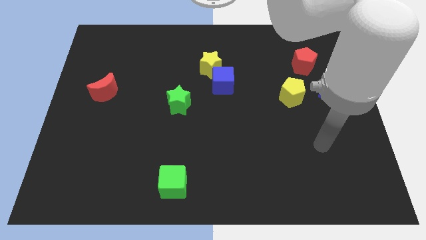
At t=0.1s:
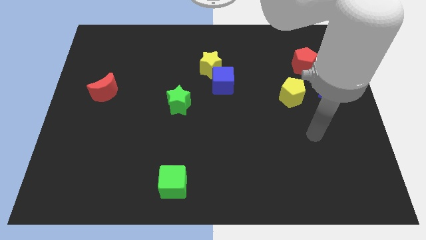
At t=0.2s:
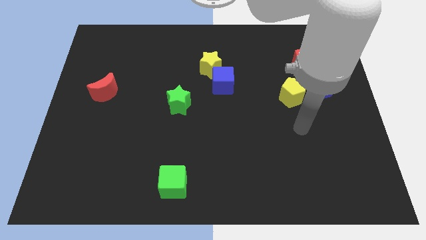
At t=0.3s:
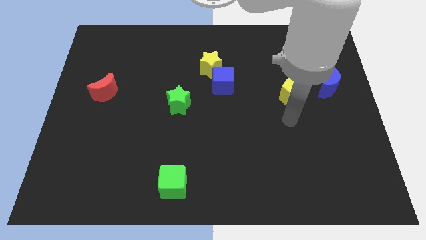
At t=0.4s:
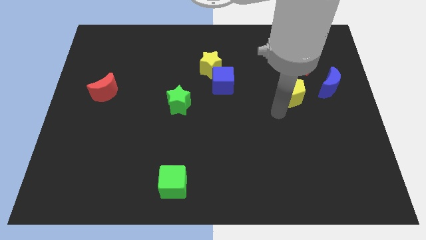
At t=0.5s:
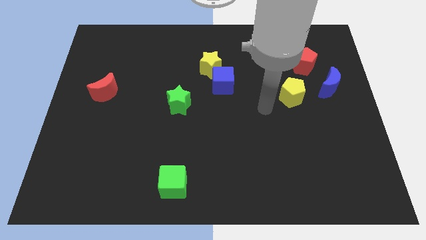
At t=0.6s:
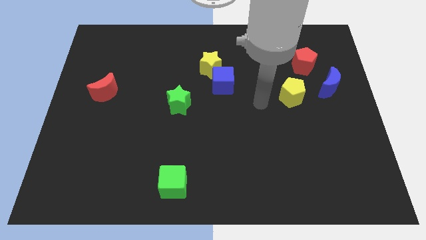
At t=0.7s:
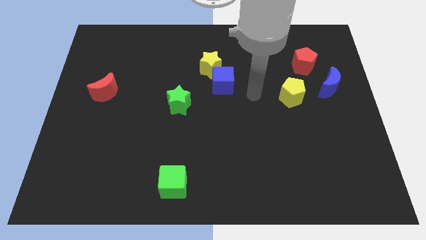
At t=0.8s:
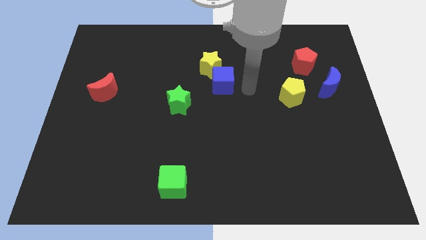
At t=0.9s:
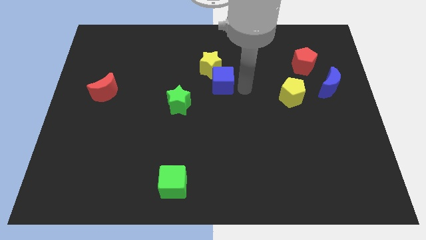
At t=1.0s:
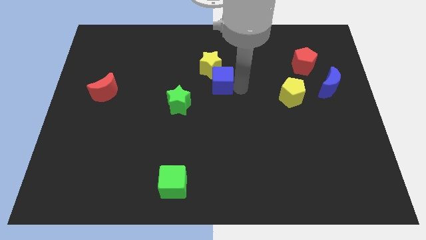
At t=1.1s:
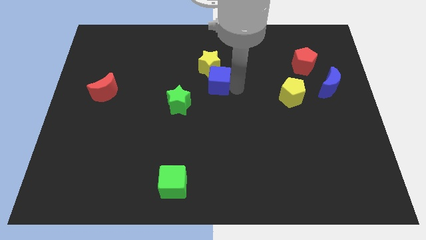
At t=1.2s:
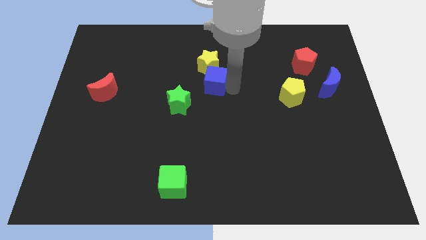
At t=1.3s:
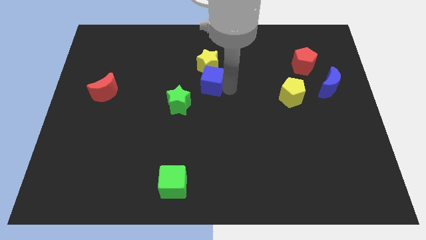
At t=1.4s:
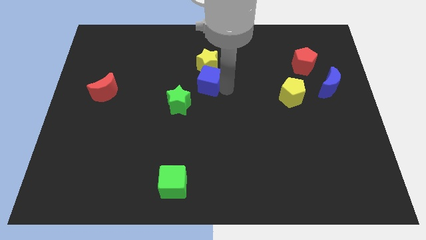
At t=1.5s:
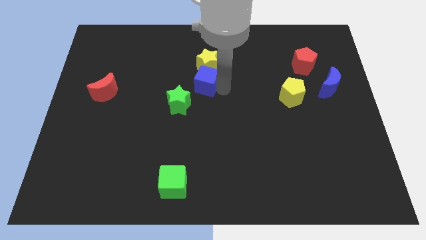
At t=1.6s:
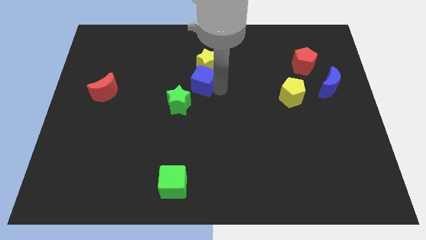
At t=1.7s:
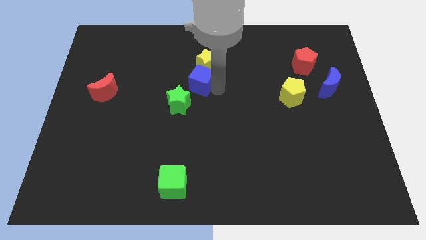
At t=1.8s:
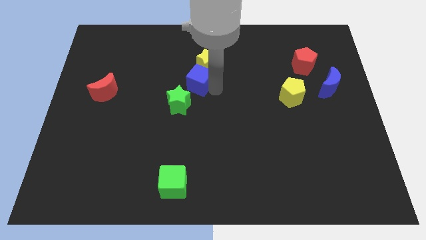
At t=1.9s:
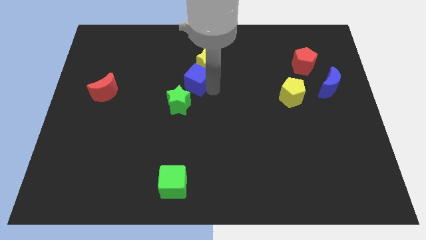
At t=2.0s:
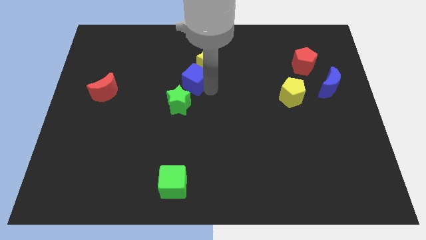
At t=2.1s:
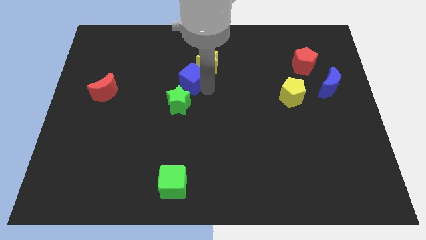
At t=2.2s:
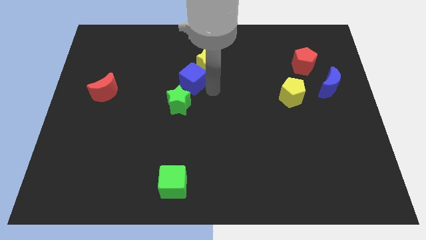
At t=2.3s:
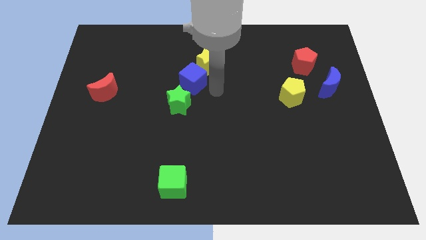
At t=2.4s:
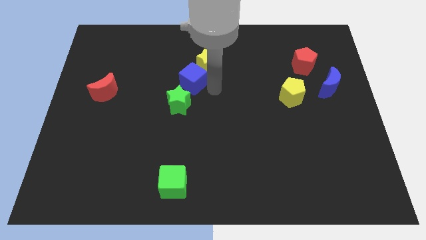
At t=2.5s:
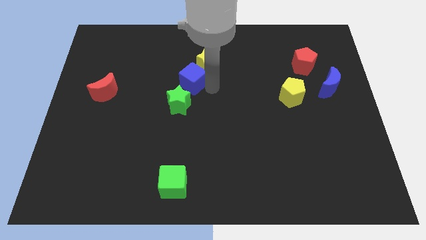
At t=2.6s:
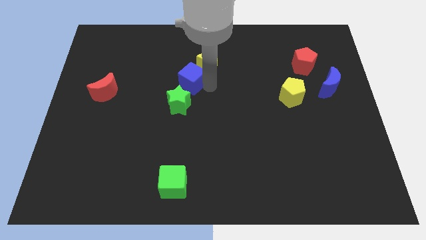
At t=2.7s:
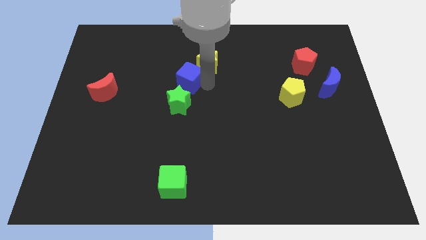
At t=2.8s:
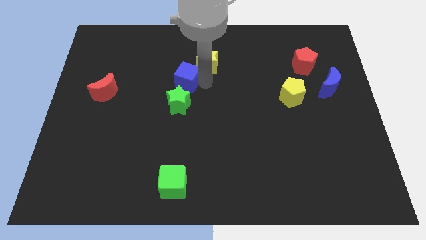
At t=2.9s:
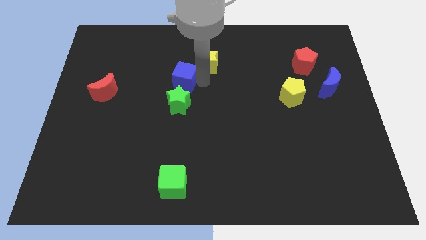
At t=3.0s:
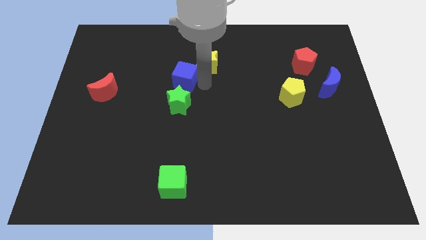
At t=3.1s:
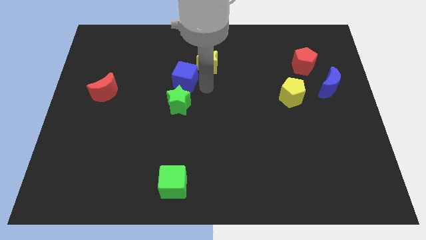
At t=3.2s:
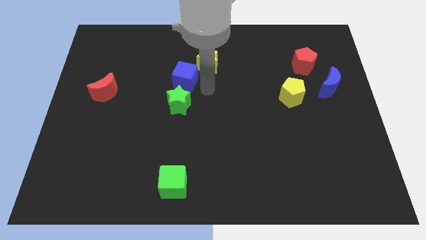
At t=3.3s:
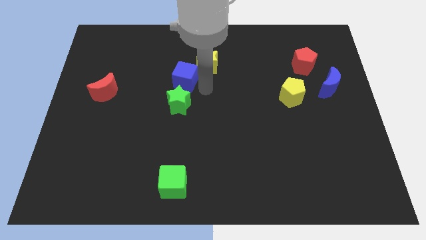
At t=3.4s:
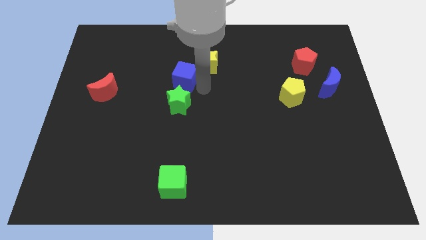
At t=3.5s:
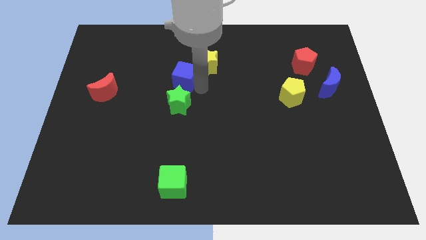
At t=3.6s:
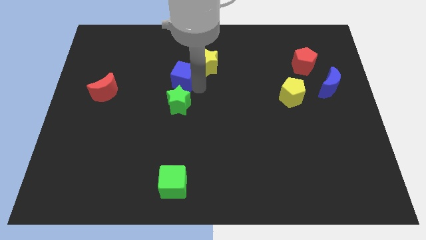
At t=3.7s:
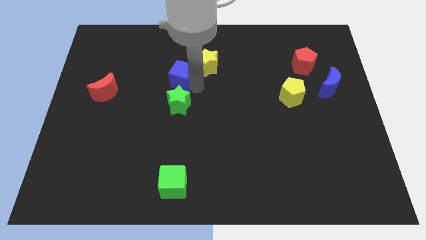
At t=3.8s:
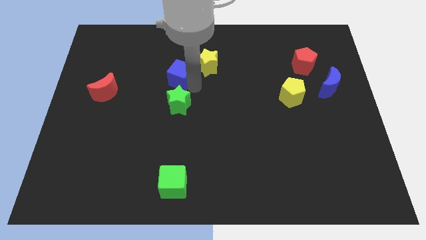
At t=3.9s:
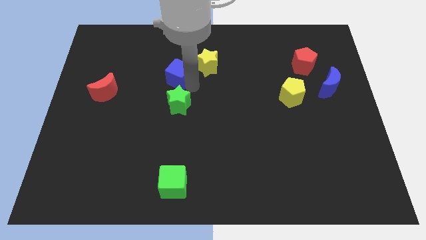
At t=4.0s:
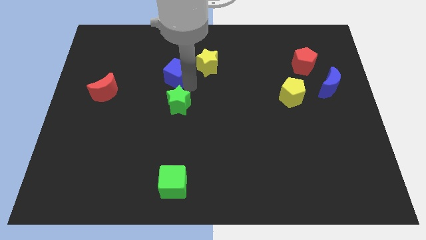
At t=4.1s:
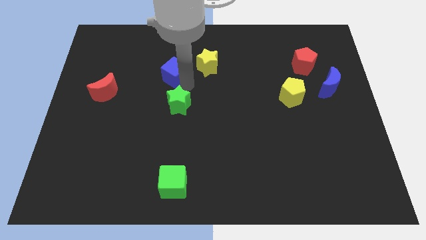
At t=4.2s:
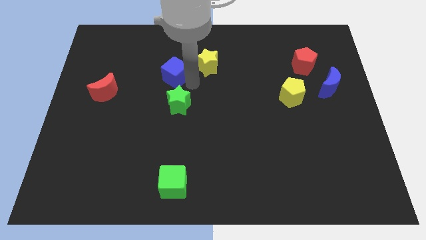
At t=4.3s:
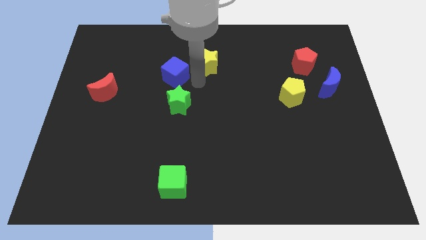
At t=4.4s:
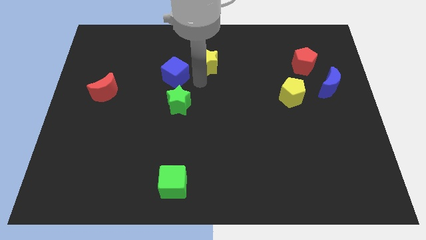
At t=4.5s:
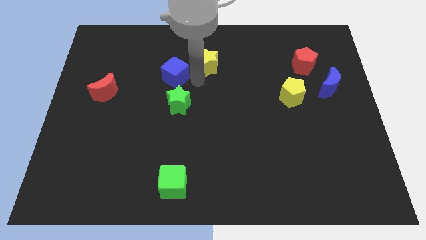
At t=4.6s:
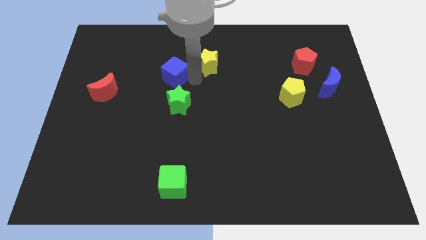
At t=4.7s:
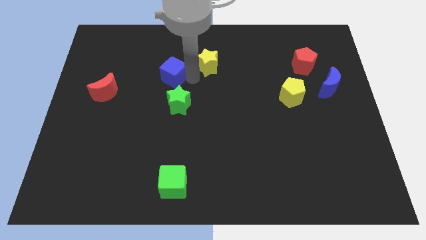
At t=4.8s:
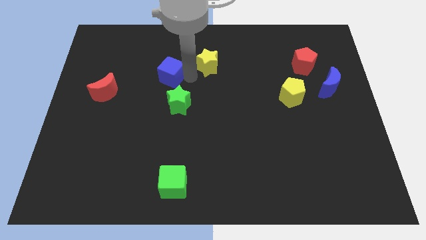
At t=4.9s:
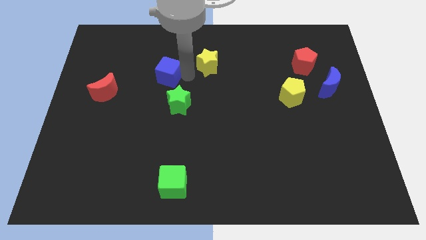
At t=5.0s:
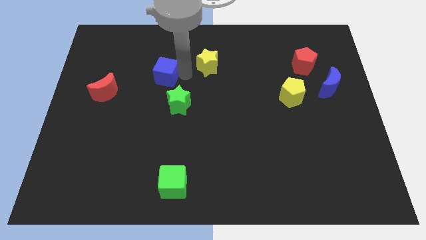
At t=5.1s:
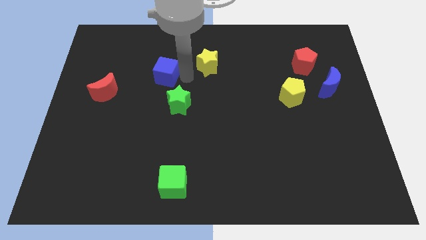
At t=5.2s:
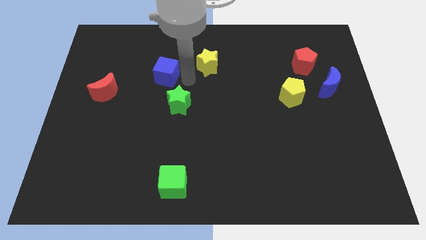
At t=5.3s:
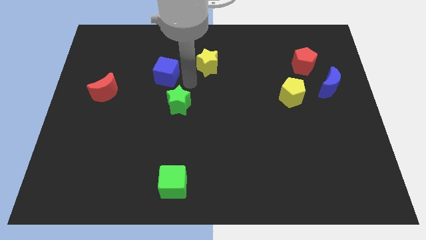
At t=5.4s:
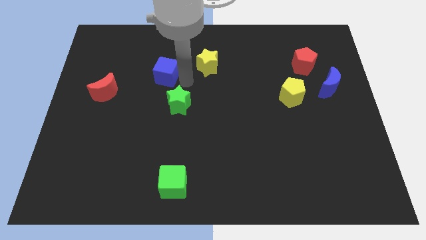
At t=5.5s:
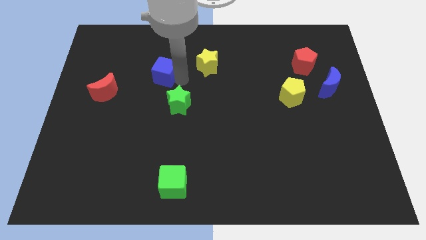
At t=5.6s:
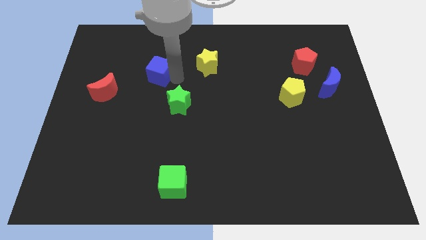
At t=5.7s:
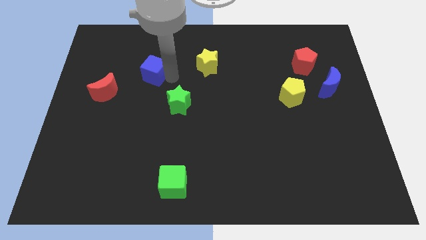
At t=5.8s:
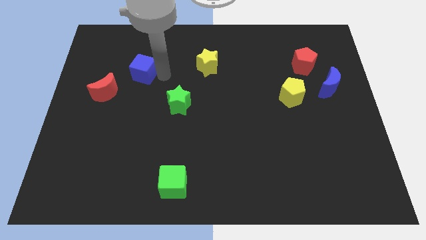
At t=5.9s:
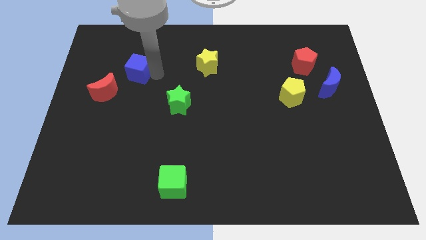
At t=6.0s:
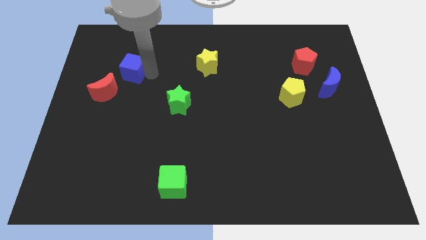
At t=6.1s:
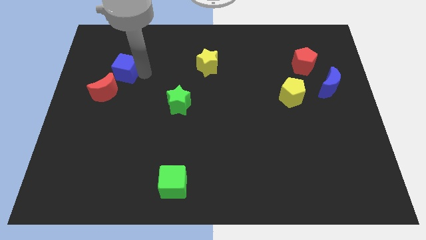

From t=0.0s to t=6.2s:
put the blue cube to the top of the red moon

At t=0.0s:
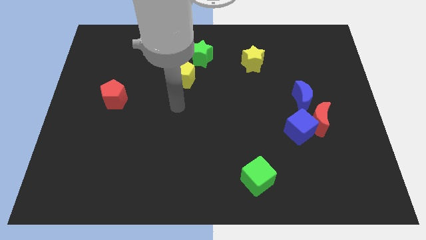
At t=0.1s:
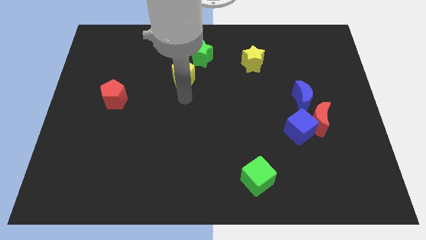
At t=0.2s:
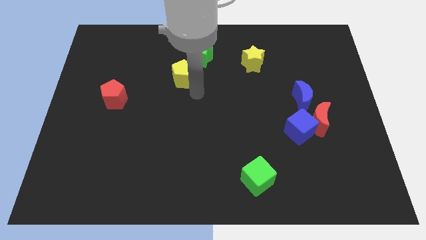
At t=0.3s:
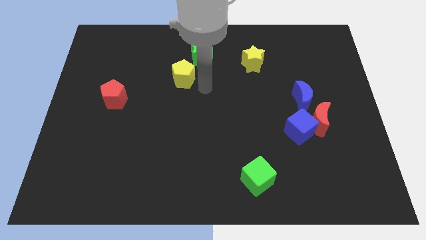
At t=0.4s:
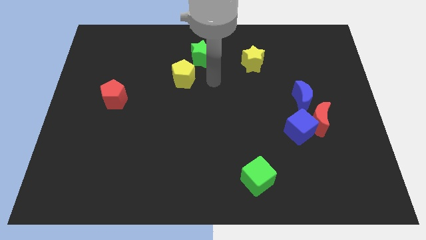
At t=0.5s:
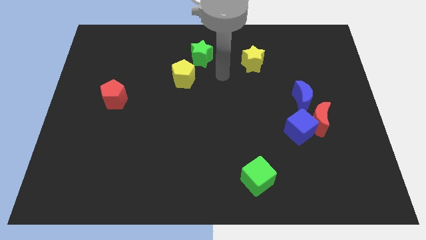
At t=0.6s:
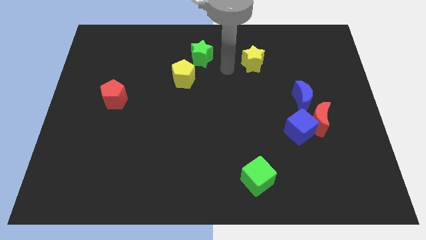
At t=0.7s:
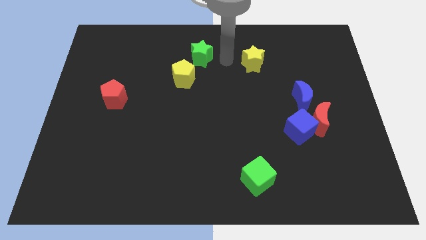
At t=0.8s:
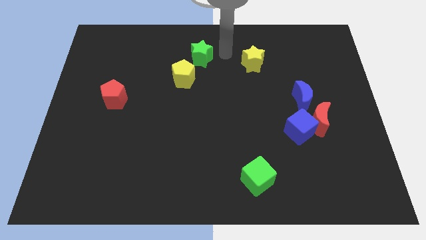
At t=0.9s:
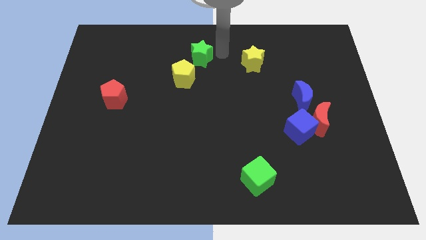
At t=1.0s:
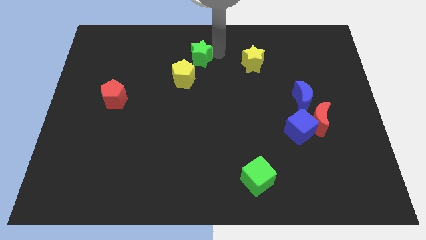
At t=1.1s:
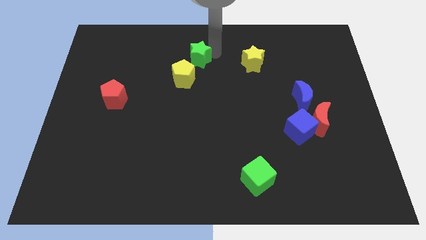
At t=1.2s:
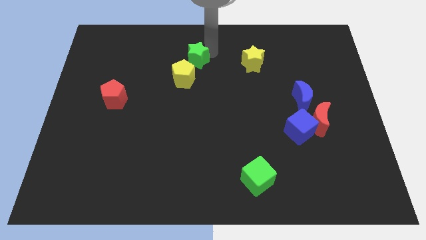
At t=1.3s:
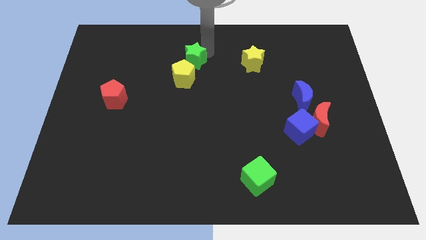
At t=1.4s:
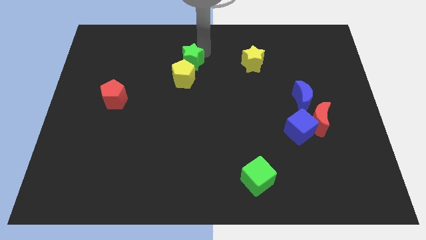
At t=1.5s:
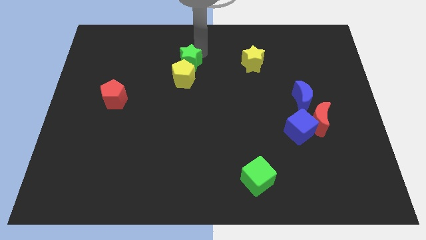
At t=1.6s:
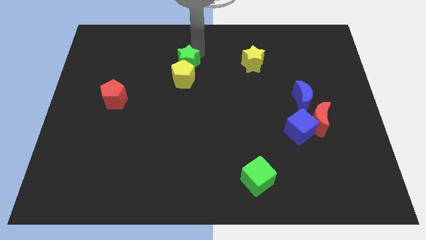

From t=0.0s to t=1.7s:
put the green star to the top left of the yellow pentagon
